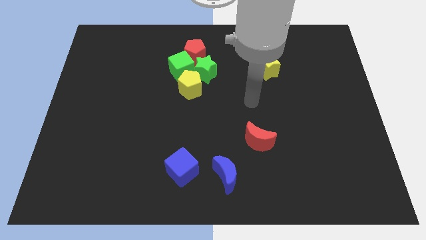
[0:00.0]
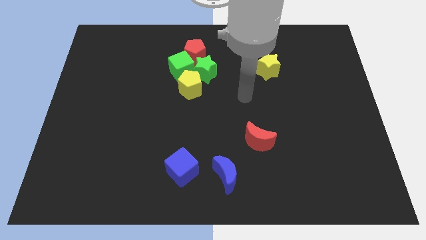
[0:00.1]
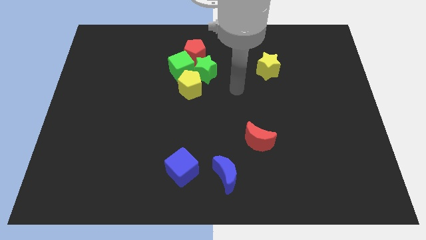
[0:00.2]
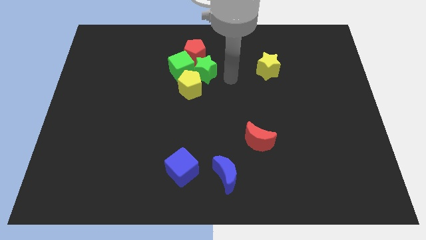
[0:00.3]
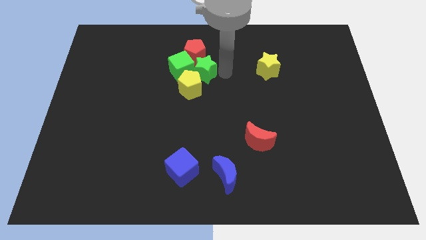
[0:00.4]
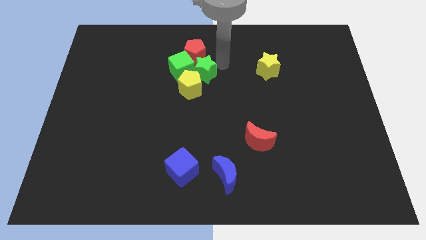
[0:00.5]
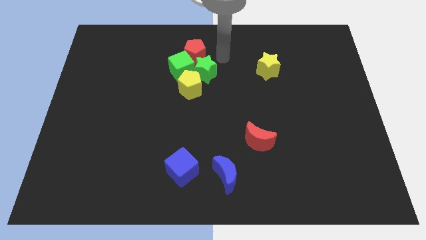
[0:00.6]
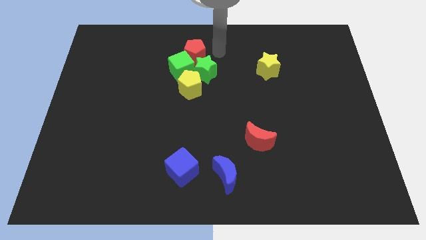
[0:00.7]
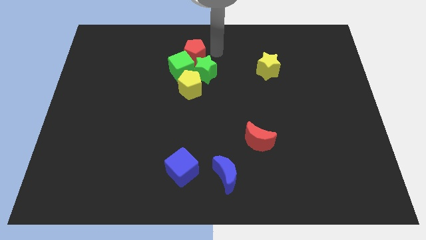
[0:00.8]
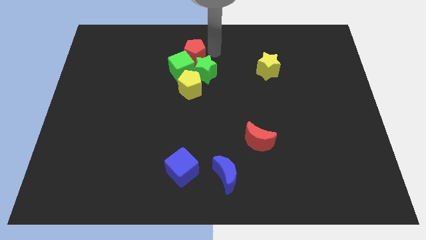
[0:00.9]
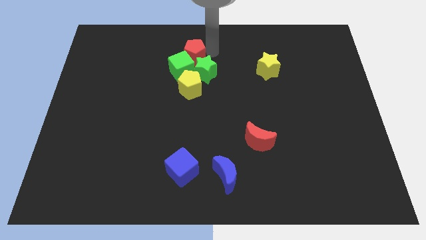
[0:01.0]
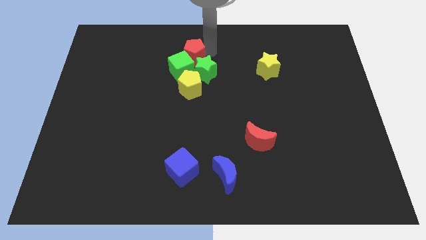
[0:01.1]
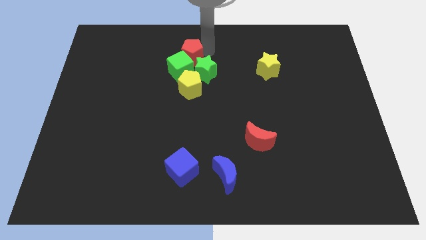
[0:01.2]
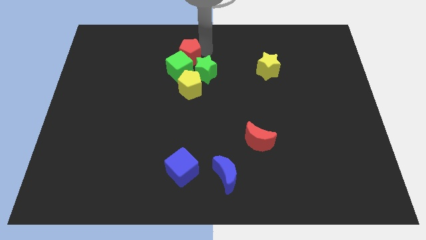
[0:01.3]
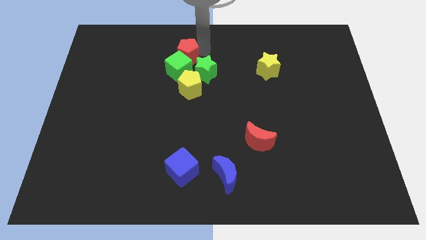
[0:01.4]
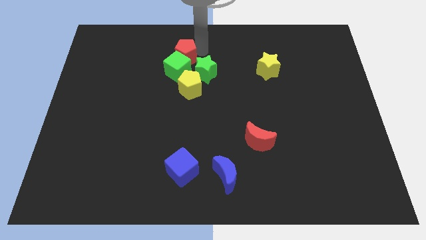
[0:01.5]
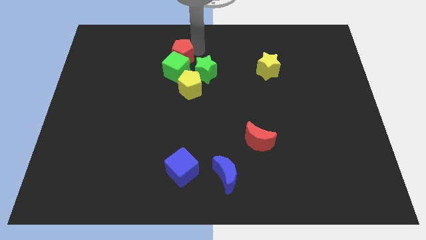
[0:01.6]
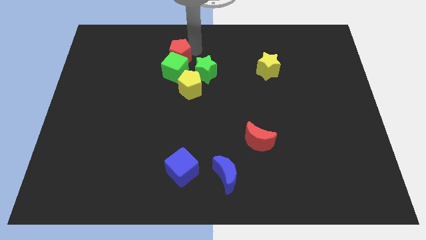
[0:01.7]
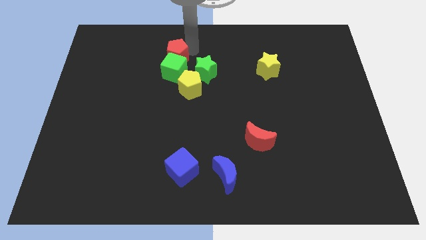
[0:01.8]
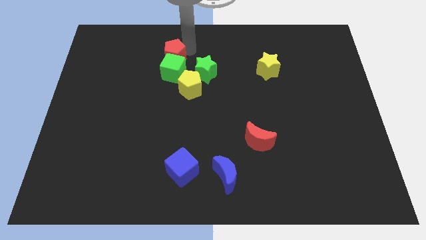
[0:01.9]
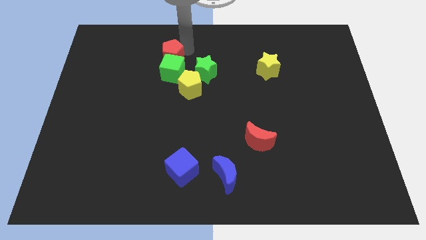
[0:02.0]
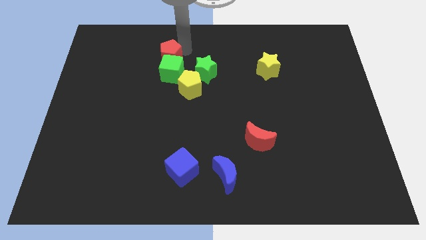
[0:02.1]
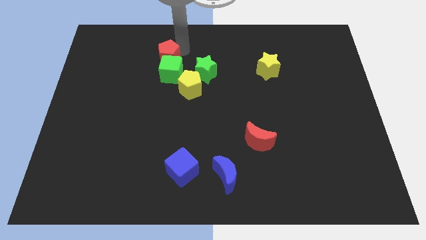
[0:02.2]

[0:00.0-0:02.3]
move the red pentagon slightly left

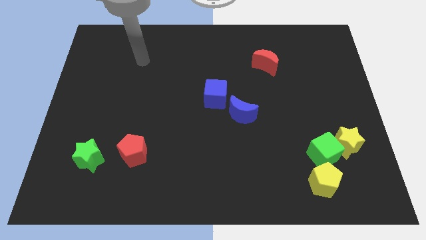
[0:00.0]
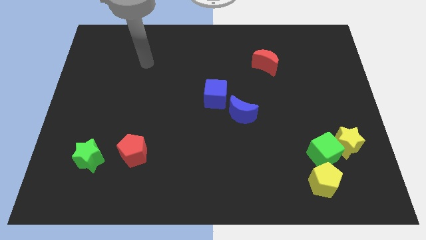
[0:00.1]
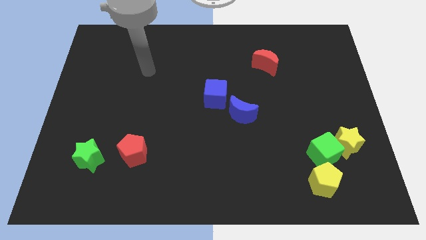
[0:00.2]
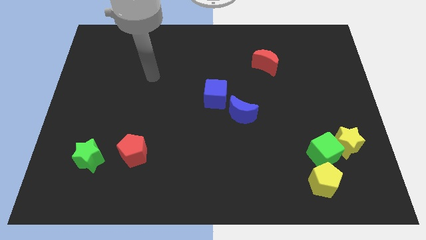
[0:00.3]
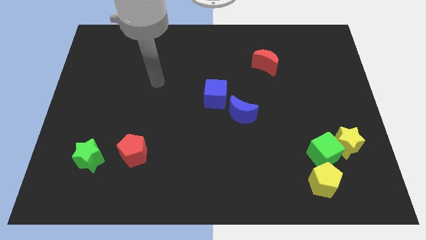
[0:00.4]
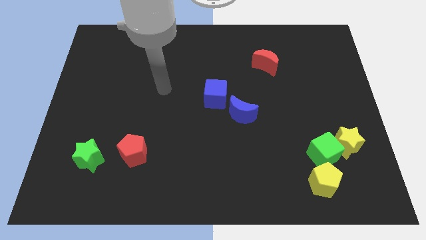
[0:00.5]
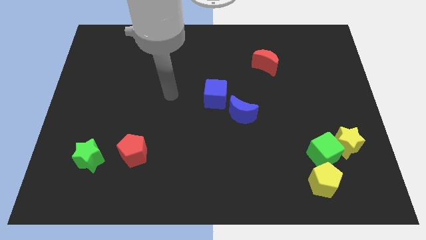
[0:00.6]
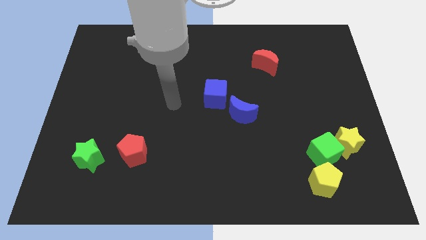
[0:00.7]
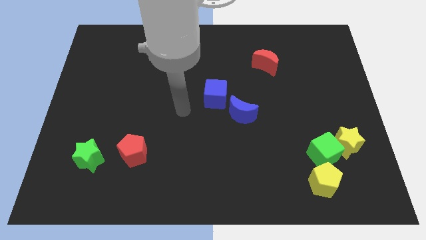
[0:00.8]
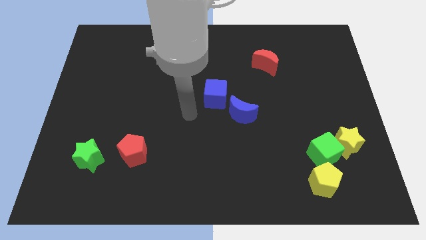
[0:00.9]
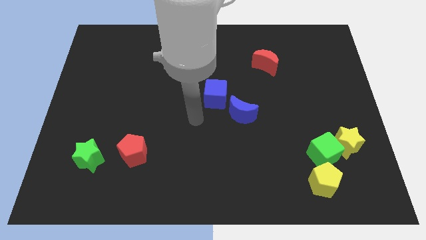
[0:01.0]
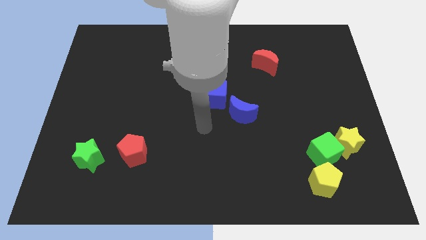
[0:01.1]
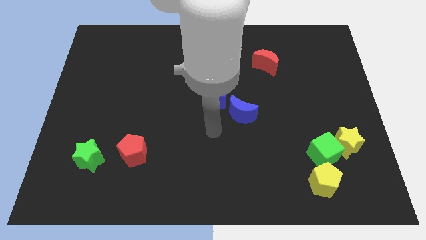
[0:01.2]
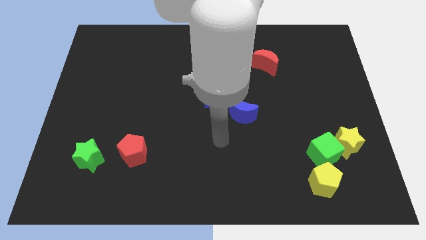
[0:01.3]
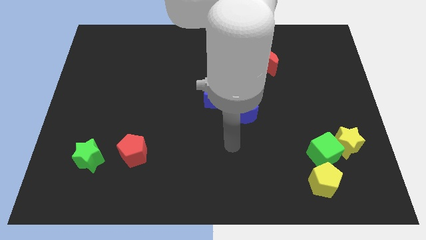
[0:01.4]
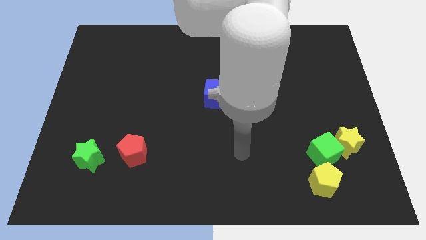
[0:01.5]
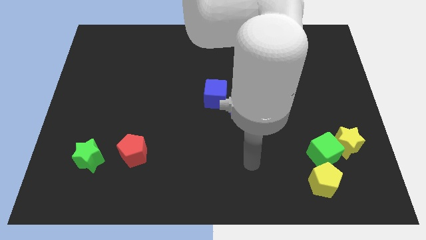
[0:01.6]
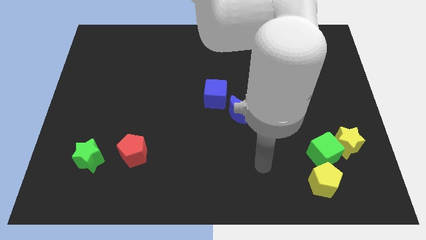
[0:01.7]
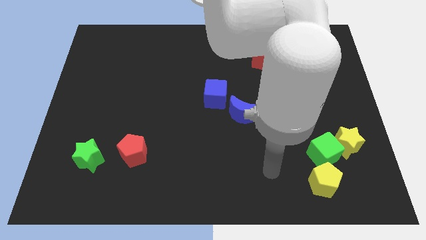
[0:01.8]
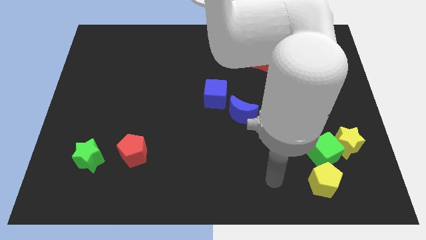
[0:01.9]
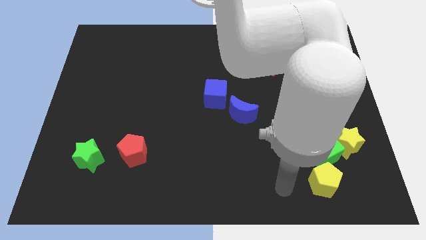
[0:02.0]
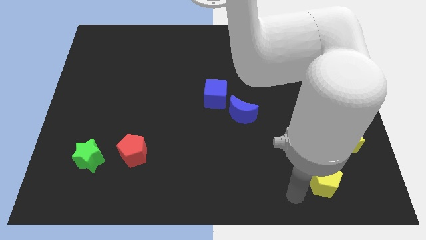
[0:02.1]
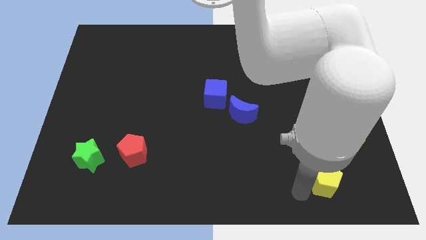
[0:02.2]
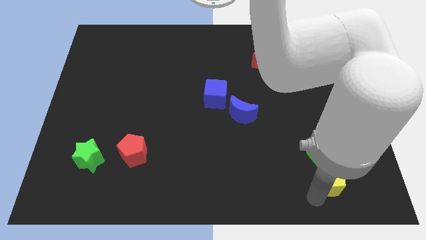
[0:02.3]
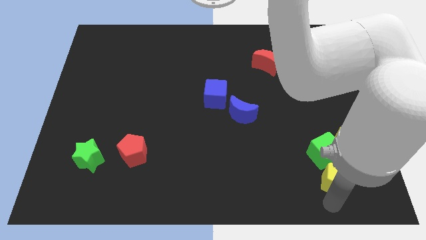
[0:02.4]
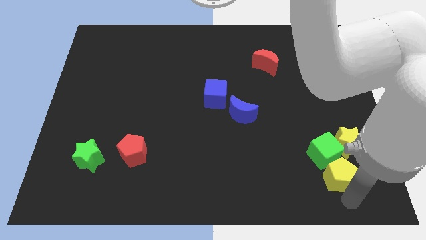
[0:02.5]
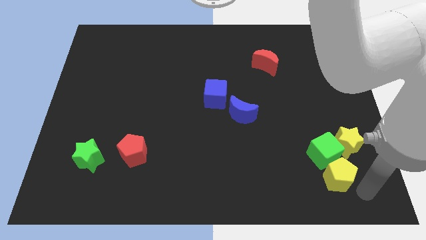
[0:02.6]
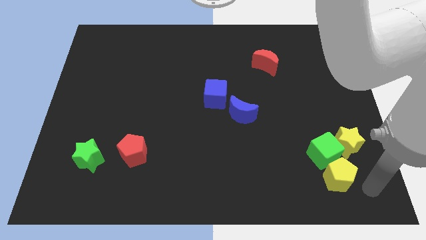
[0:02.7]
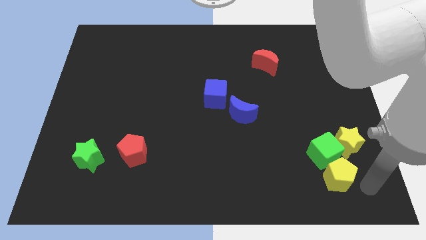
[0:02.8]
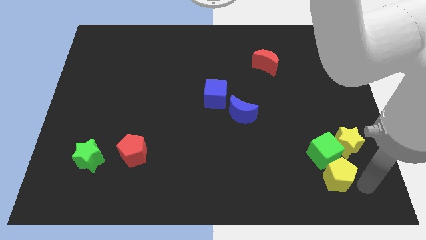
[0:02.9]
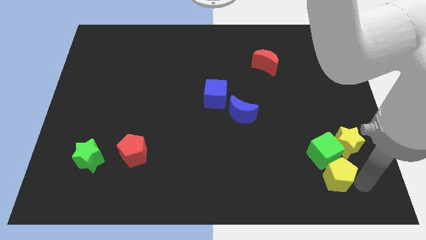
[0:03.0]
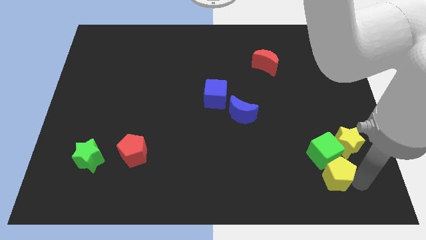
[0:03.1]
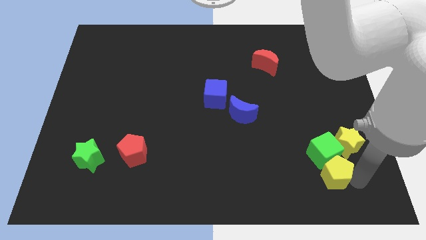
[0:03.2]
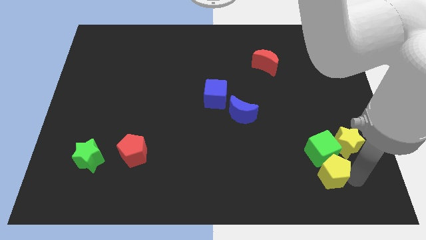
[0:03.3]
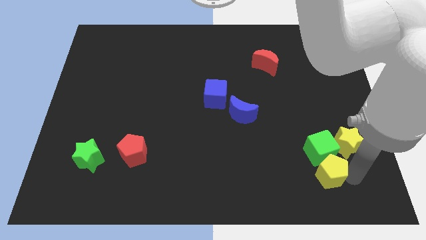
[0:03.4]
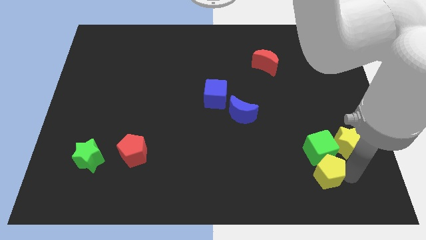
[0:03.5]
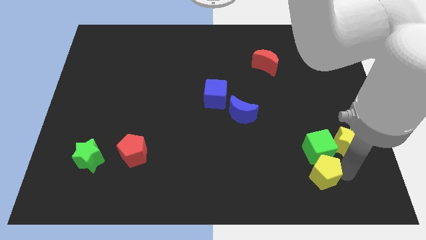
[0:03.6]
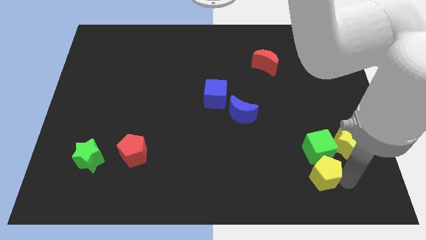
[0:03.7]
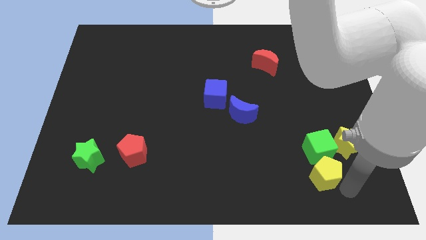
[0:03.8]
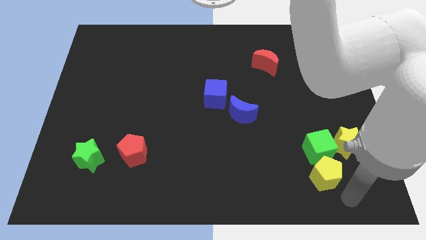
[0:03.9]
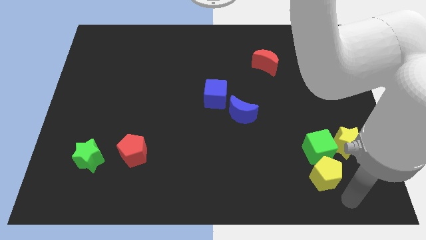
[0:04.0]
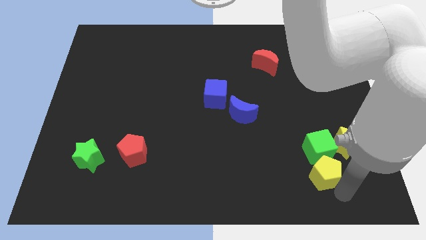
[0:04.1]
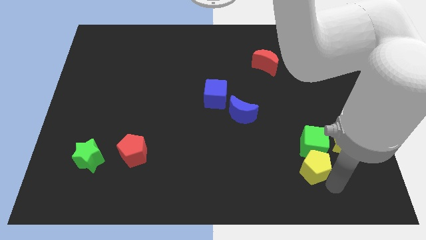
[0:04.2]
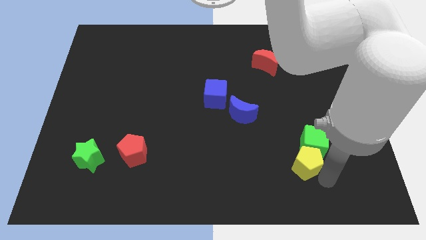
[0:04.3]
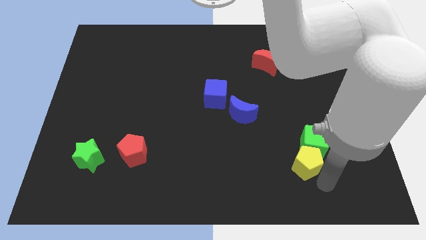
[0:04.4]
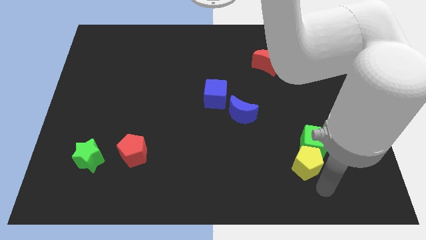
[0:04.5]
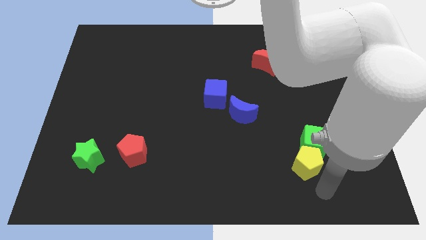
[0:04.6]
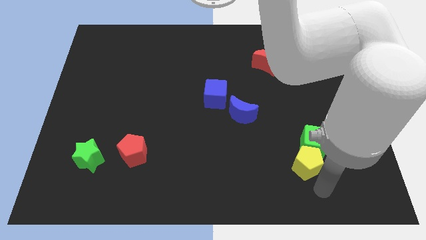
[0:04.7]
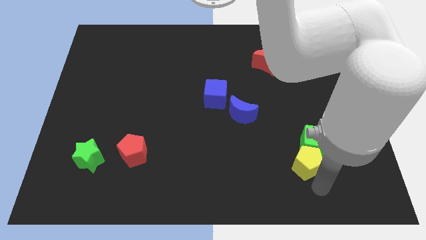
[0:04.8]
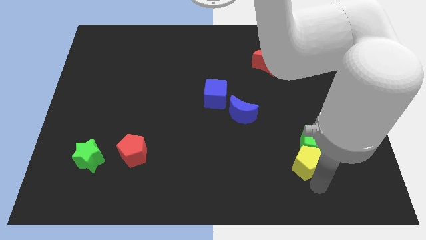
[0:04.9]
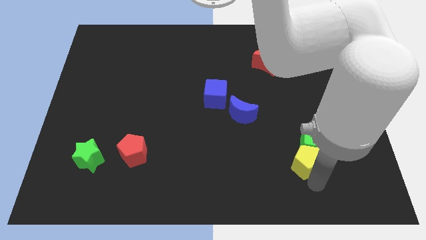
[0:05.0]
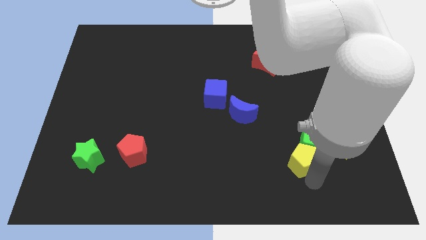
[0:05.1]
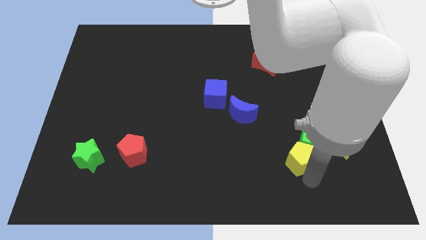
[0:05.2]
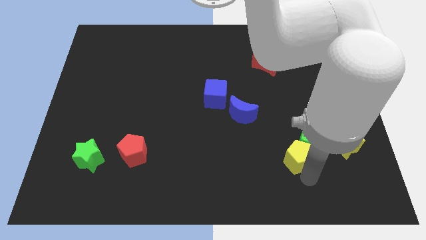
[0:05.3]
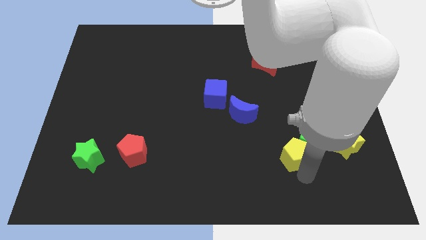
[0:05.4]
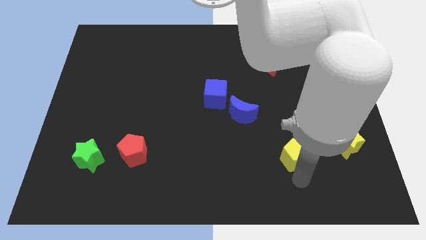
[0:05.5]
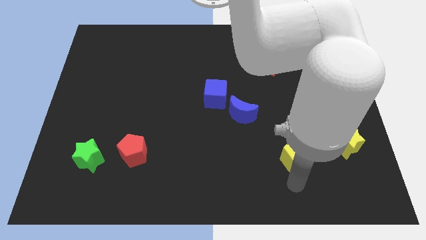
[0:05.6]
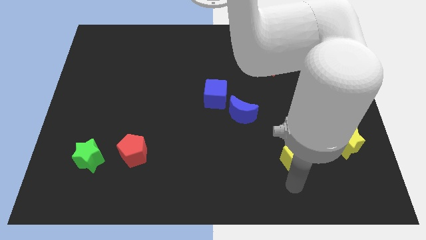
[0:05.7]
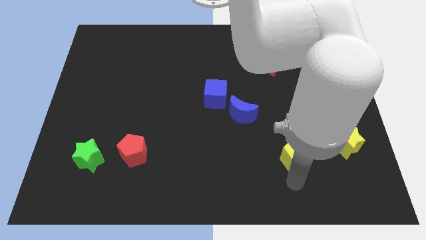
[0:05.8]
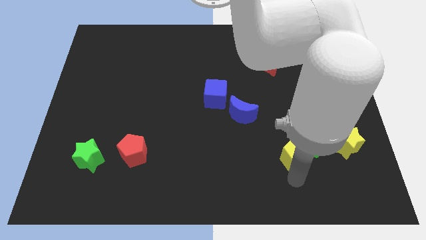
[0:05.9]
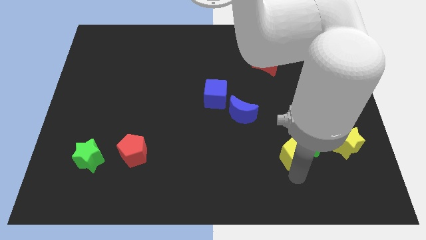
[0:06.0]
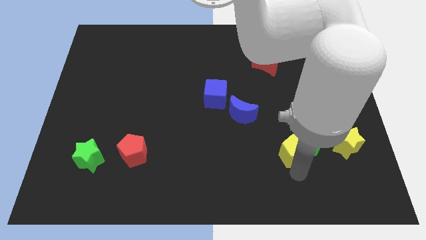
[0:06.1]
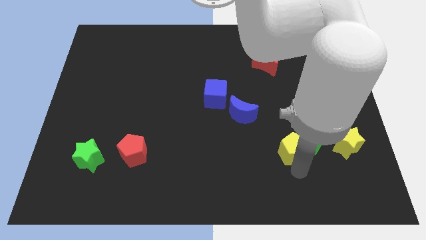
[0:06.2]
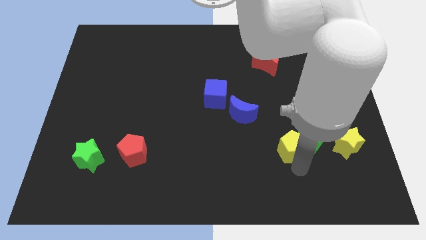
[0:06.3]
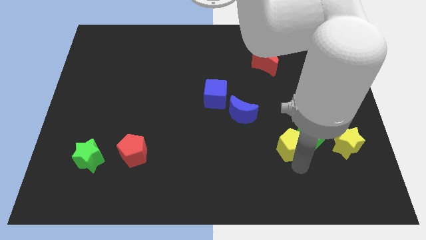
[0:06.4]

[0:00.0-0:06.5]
slightly push the yellow pentagon up
